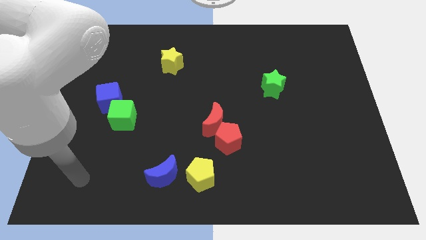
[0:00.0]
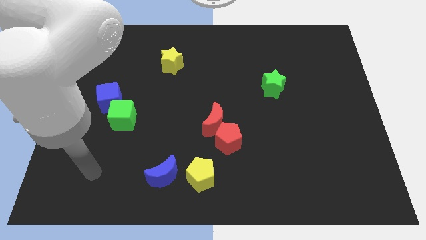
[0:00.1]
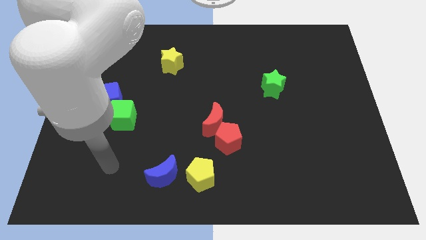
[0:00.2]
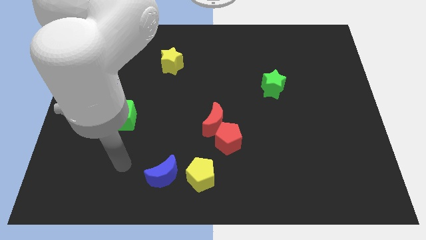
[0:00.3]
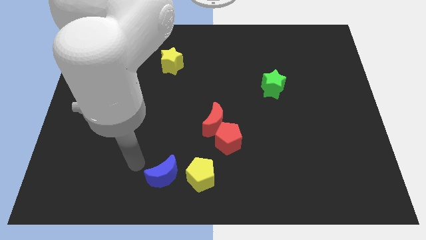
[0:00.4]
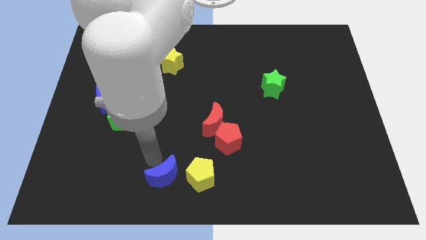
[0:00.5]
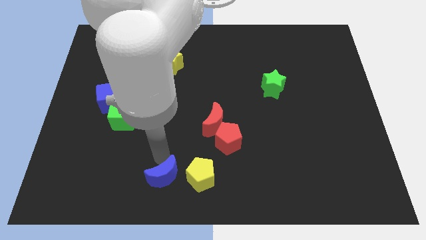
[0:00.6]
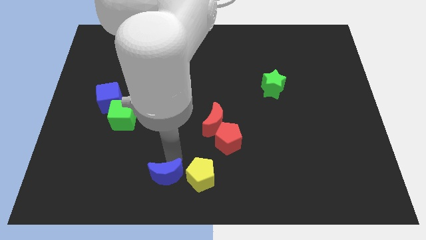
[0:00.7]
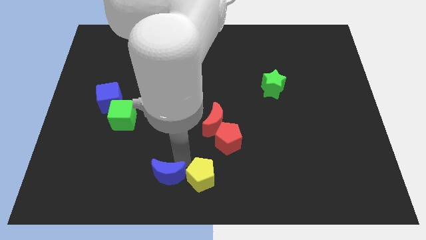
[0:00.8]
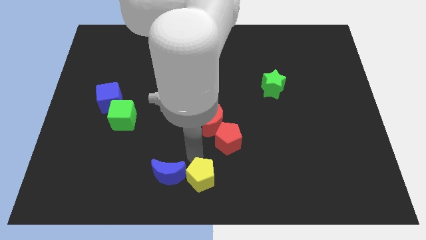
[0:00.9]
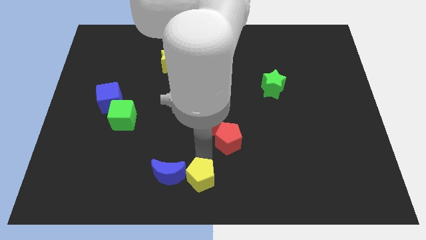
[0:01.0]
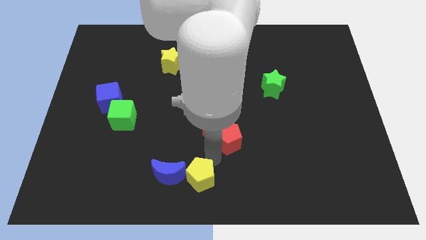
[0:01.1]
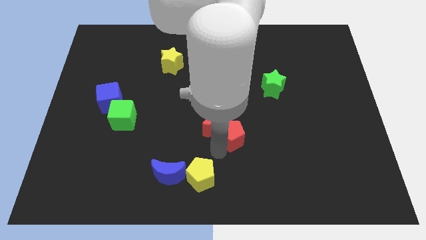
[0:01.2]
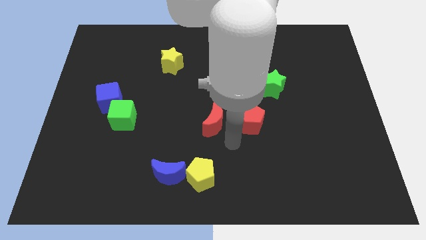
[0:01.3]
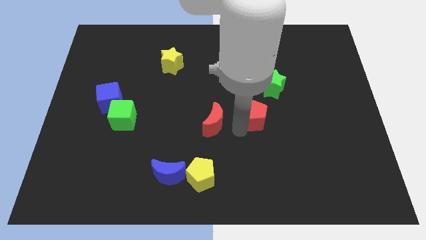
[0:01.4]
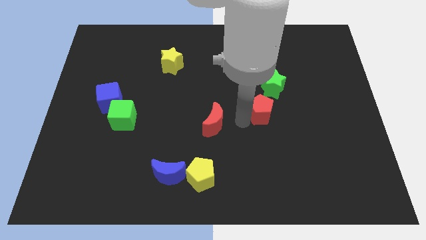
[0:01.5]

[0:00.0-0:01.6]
separate the red moon from the red pentagon

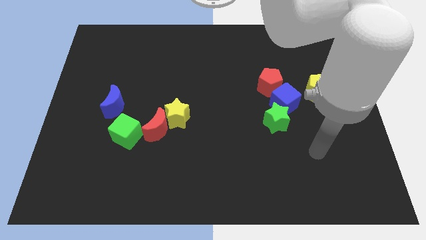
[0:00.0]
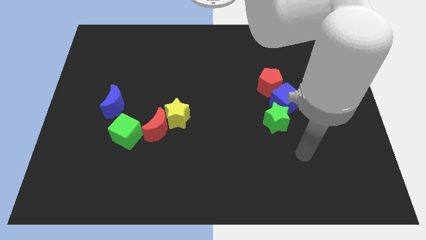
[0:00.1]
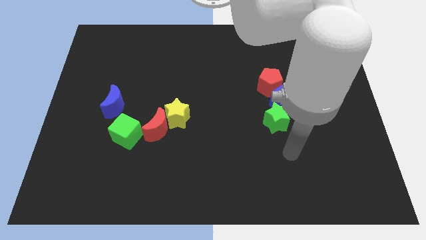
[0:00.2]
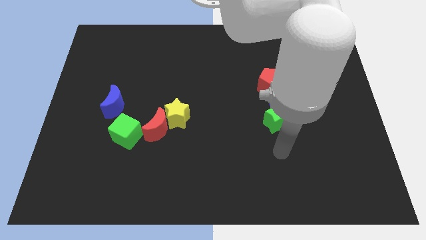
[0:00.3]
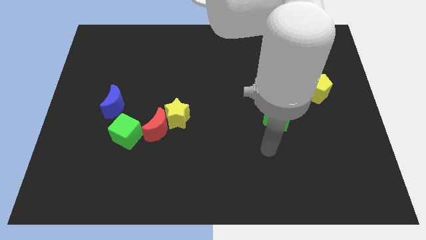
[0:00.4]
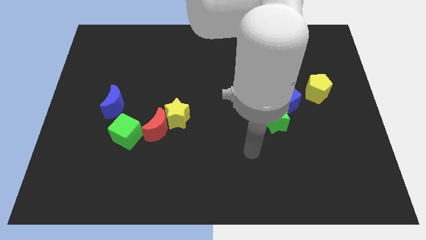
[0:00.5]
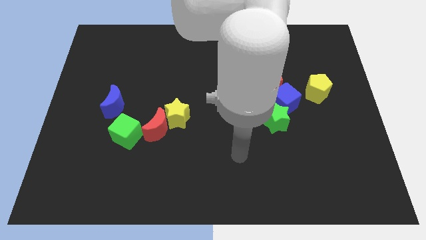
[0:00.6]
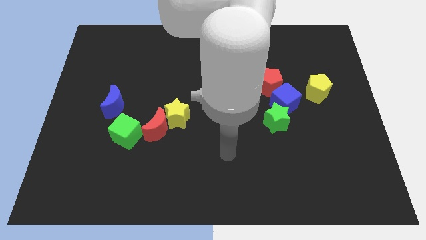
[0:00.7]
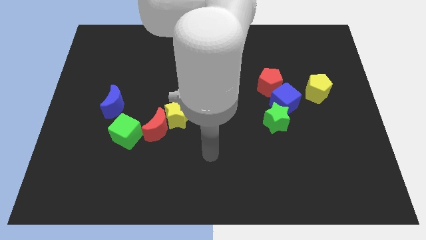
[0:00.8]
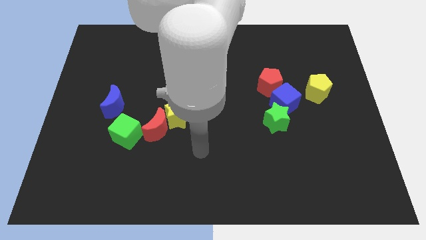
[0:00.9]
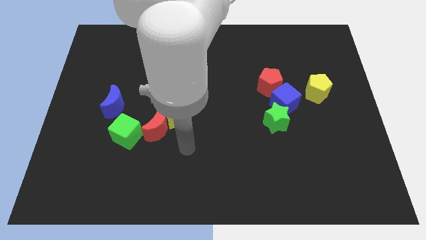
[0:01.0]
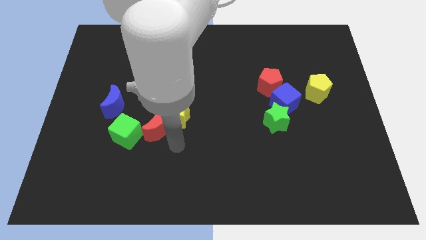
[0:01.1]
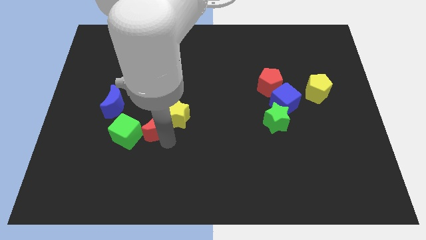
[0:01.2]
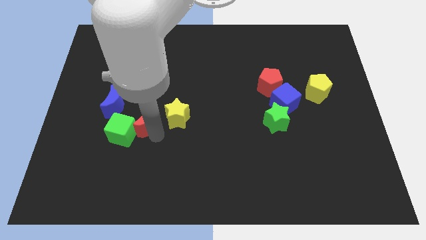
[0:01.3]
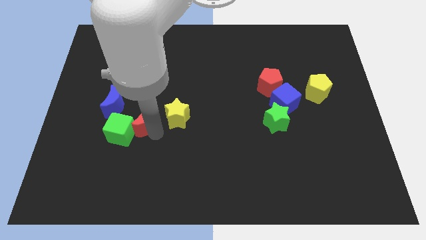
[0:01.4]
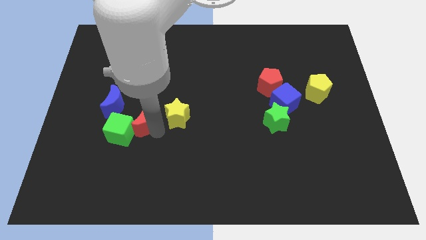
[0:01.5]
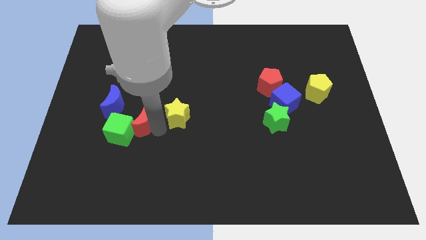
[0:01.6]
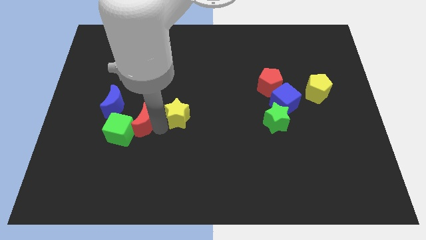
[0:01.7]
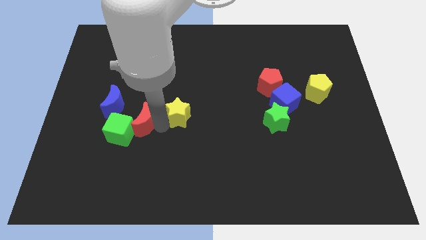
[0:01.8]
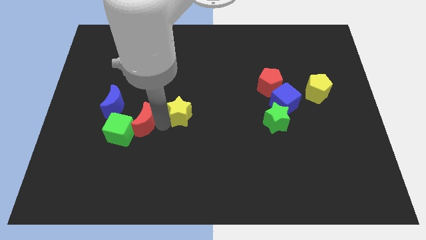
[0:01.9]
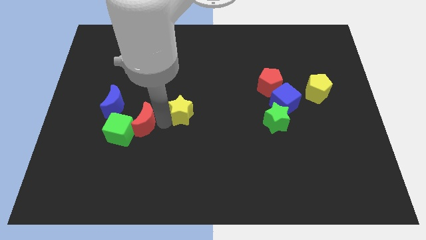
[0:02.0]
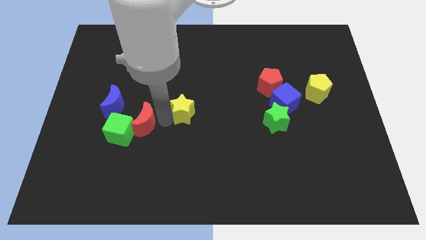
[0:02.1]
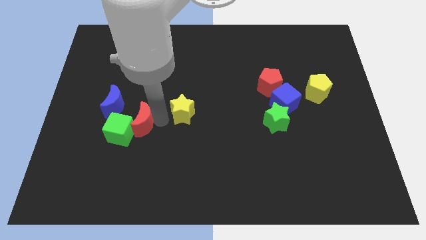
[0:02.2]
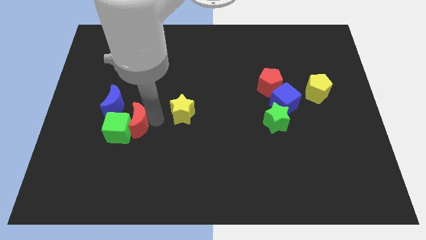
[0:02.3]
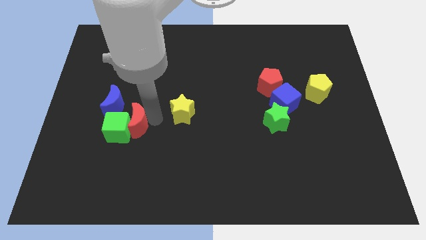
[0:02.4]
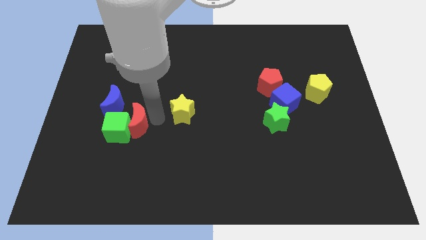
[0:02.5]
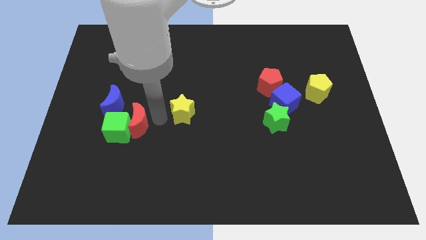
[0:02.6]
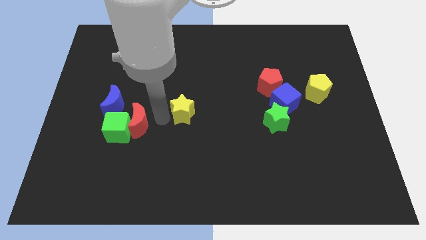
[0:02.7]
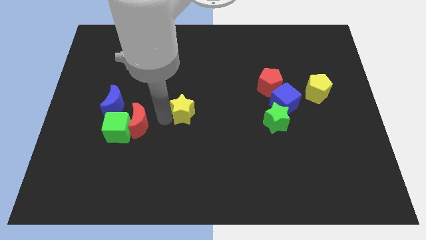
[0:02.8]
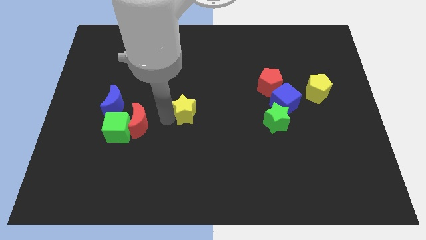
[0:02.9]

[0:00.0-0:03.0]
pull the yellow star apart from the red moon

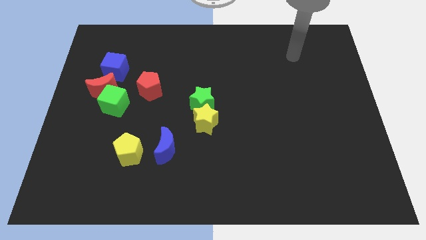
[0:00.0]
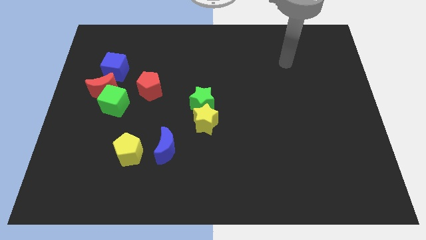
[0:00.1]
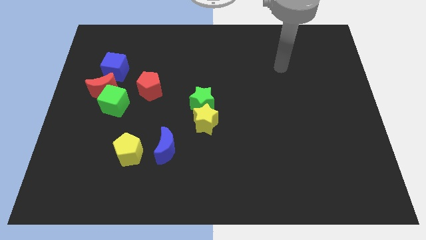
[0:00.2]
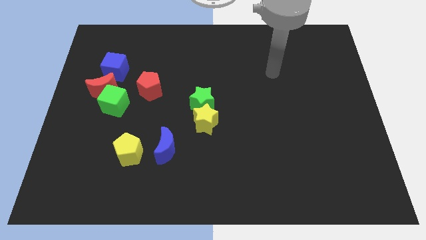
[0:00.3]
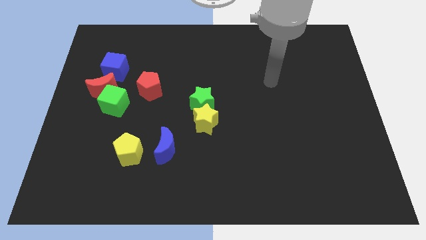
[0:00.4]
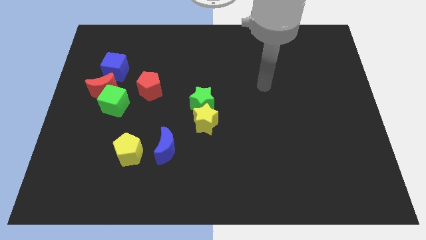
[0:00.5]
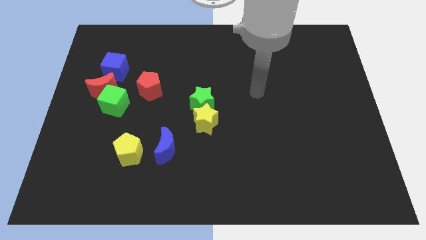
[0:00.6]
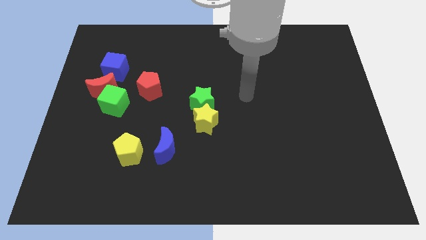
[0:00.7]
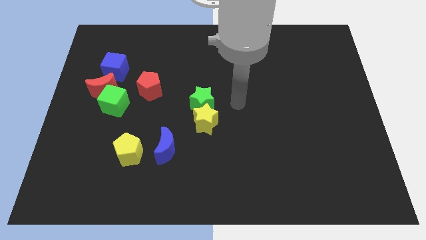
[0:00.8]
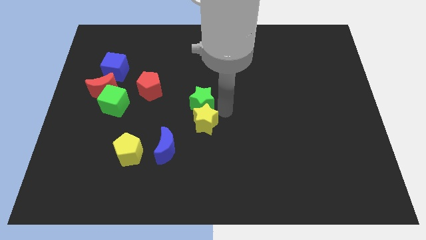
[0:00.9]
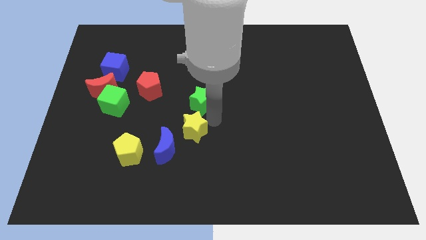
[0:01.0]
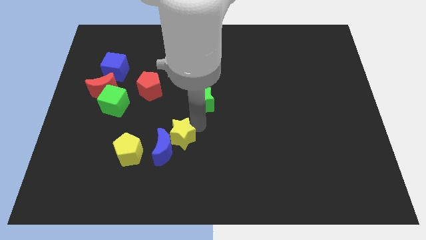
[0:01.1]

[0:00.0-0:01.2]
separate the green star from the yellow star

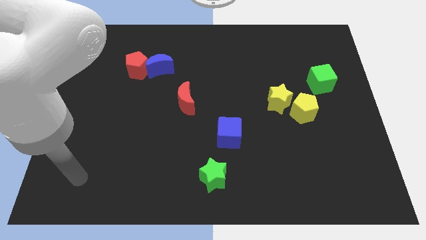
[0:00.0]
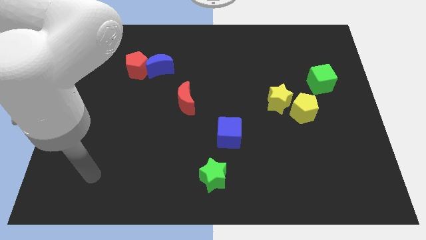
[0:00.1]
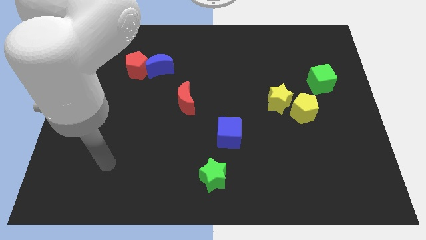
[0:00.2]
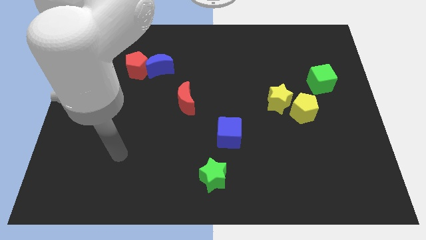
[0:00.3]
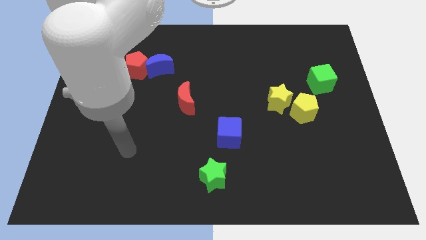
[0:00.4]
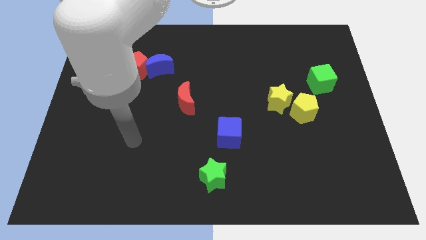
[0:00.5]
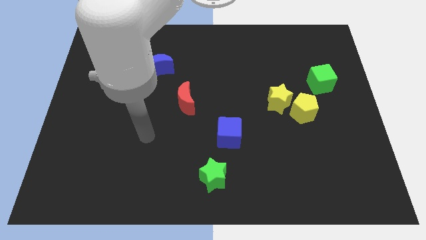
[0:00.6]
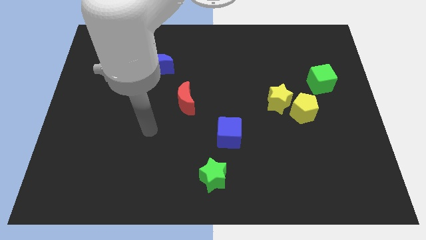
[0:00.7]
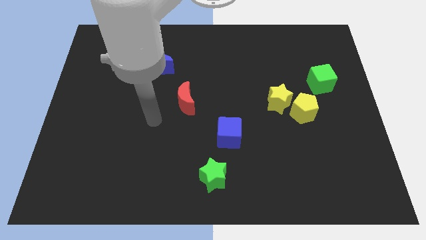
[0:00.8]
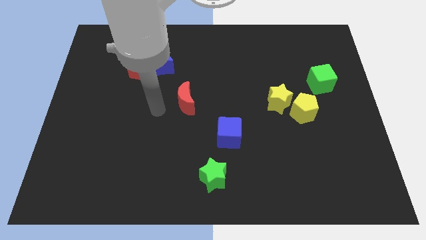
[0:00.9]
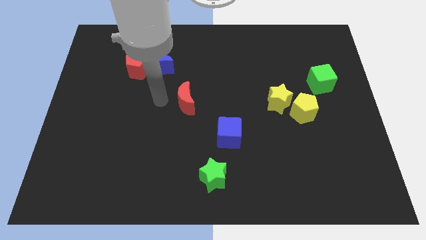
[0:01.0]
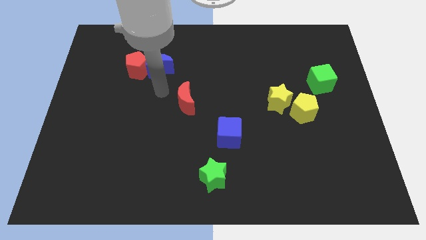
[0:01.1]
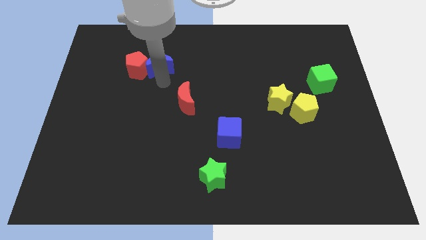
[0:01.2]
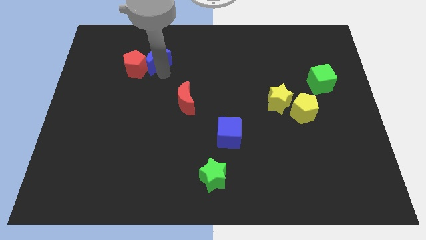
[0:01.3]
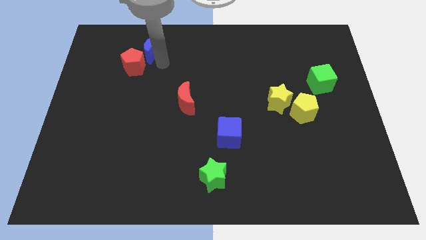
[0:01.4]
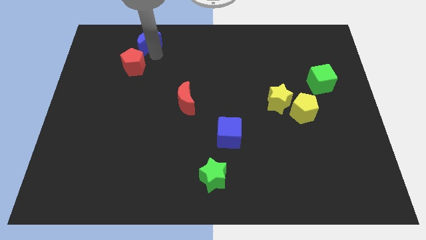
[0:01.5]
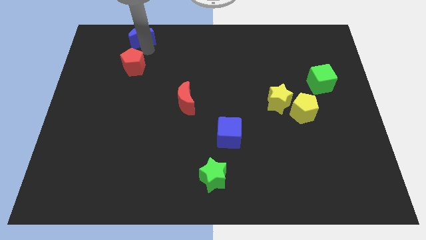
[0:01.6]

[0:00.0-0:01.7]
pull the red pentagon apart from the blue moon

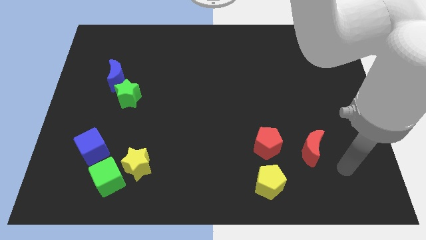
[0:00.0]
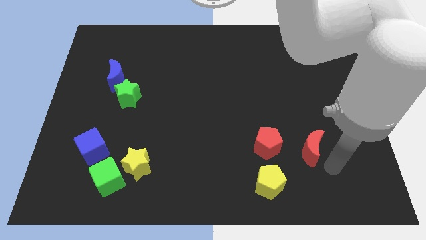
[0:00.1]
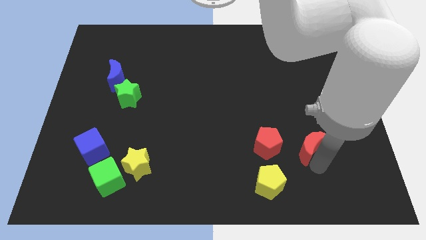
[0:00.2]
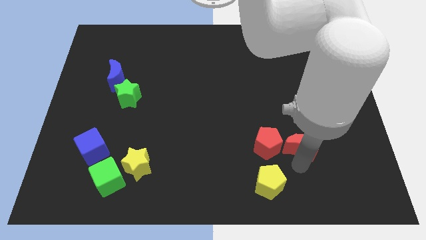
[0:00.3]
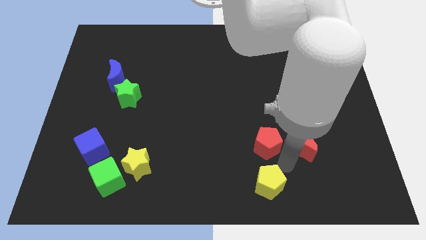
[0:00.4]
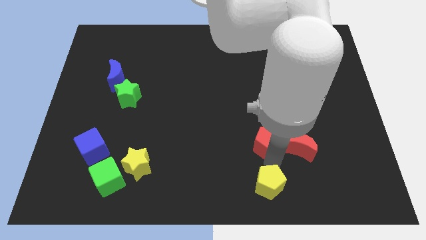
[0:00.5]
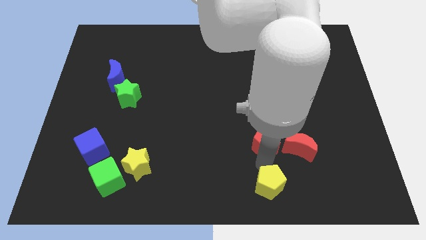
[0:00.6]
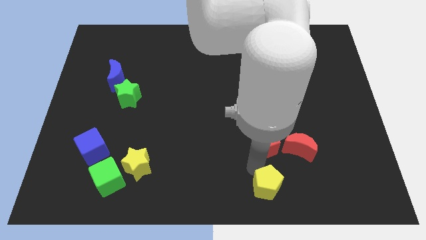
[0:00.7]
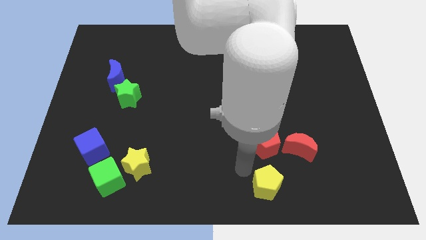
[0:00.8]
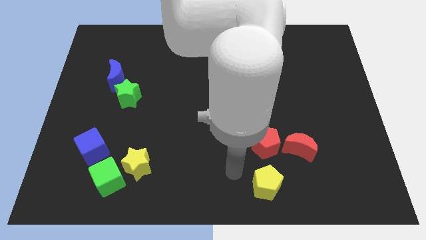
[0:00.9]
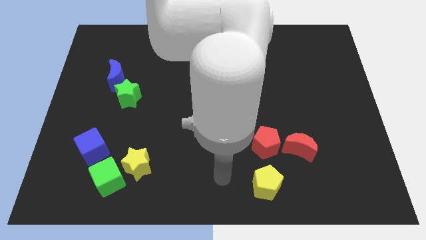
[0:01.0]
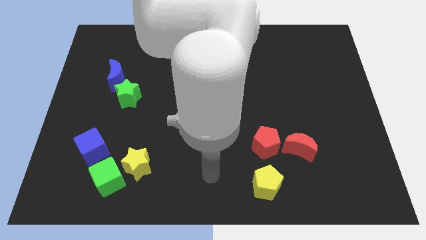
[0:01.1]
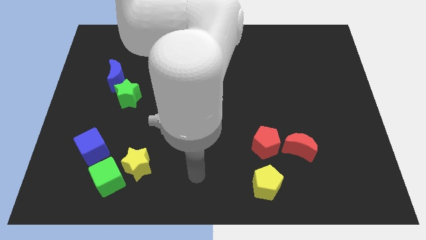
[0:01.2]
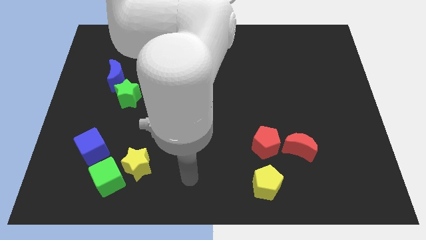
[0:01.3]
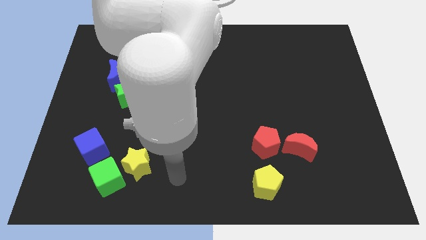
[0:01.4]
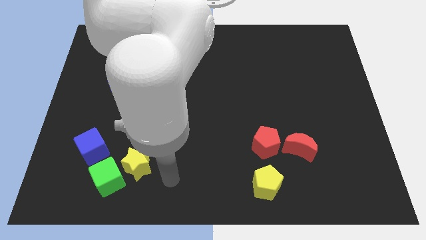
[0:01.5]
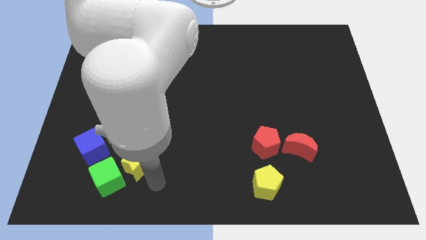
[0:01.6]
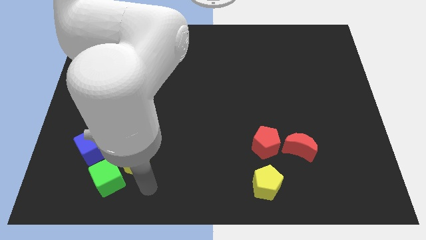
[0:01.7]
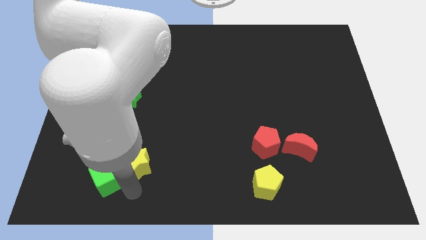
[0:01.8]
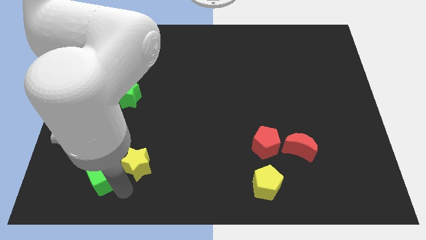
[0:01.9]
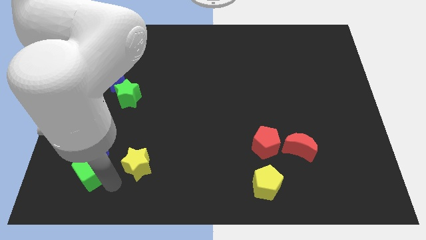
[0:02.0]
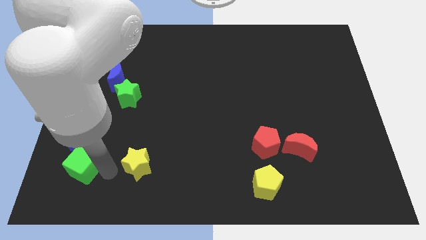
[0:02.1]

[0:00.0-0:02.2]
pull the yellow star apart from the green cube
